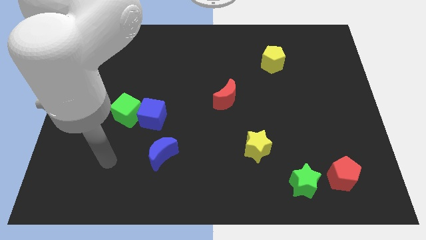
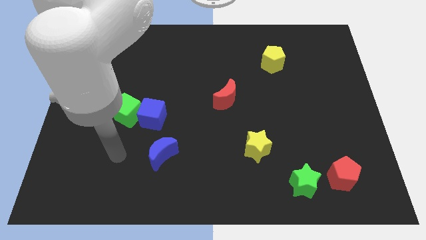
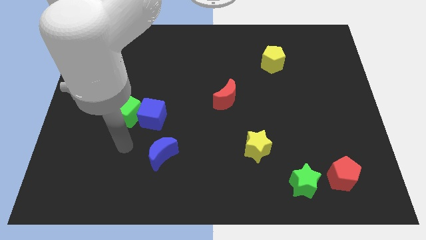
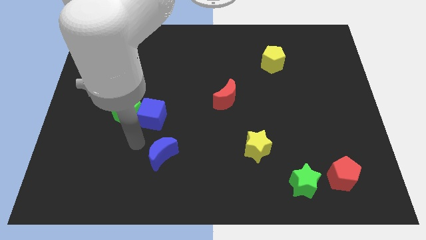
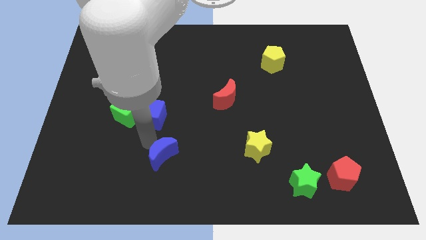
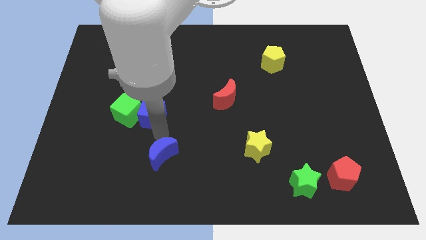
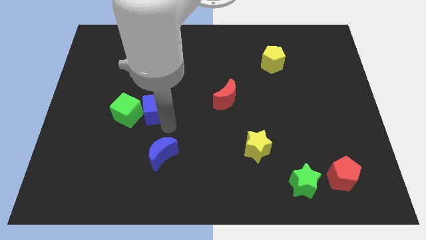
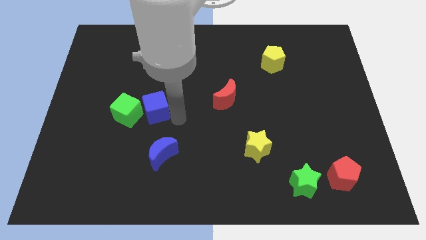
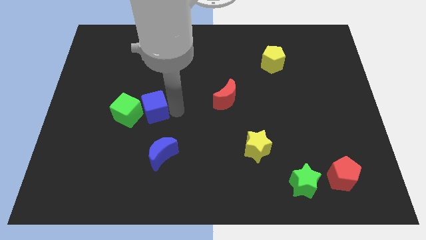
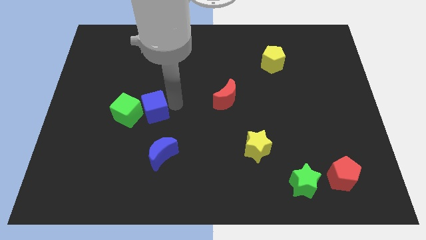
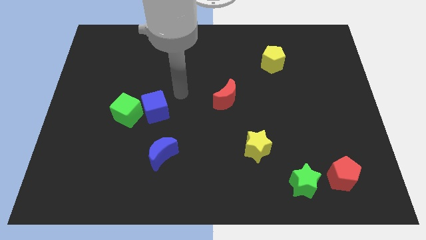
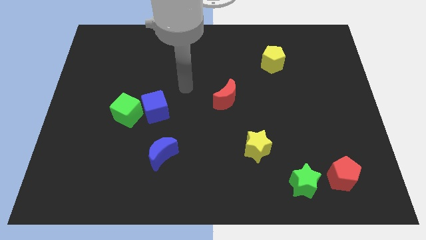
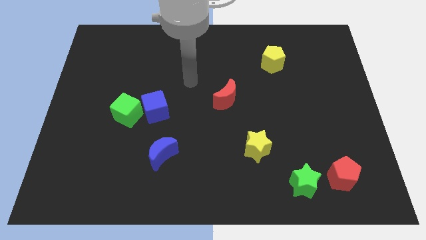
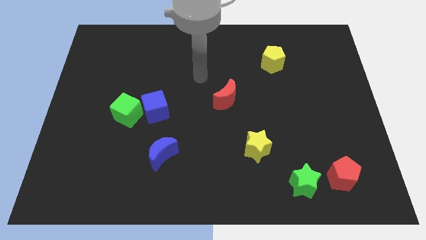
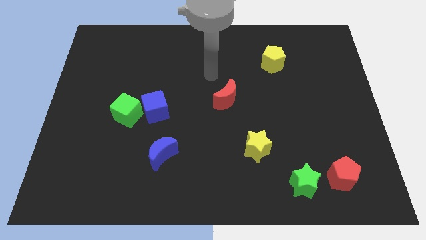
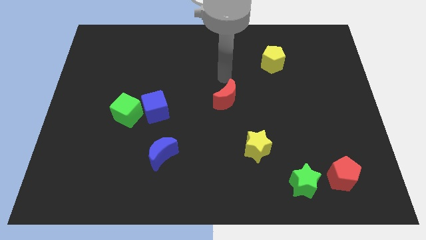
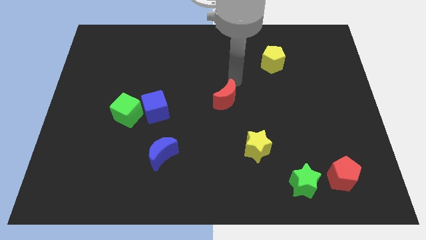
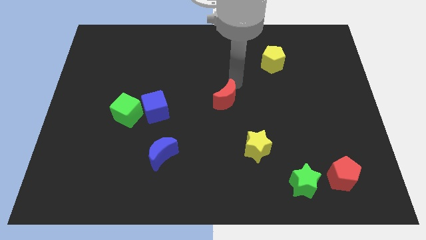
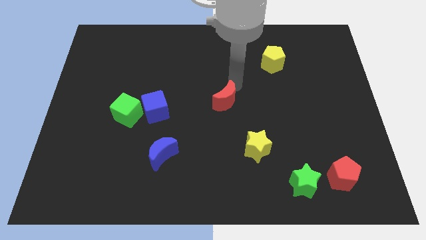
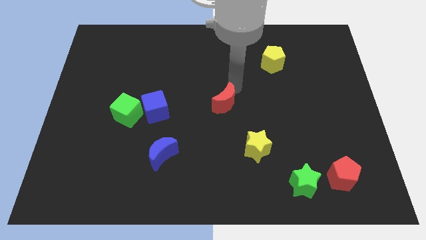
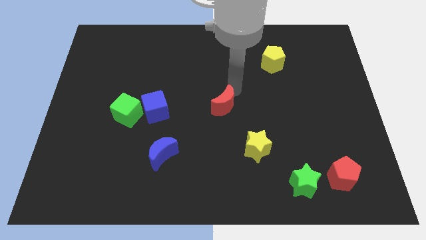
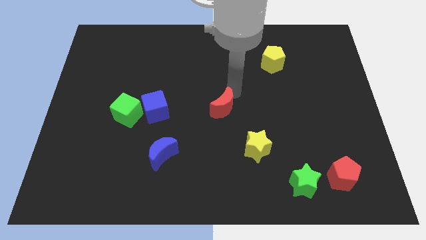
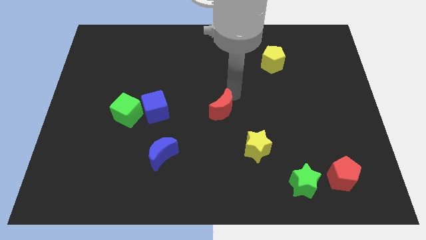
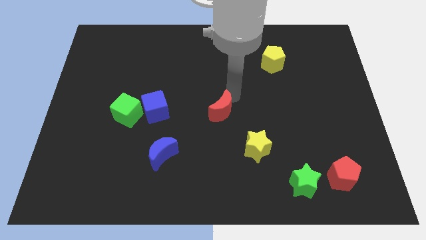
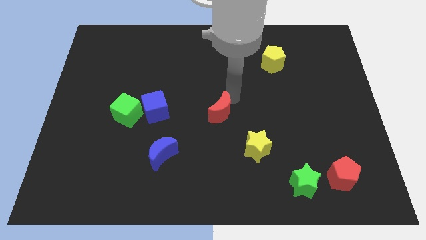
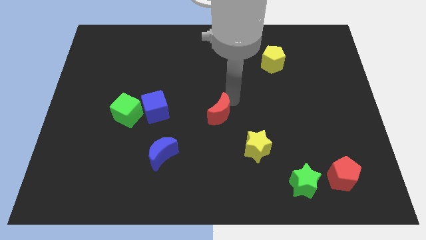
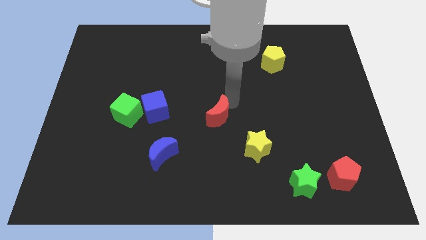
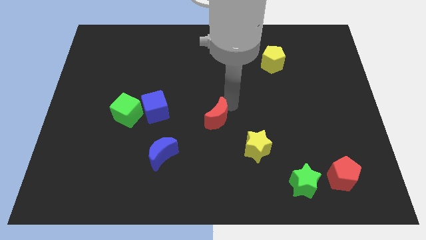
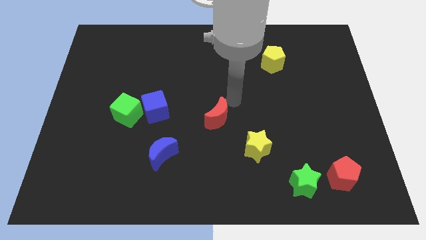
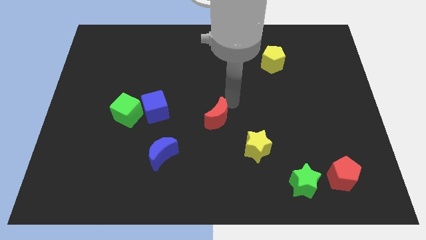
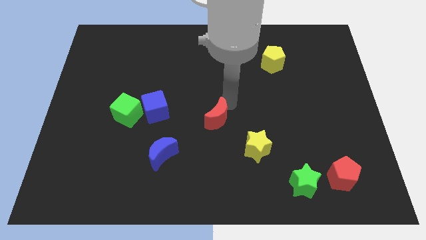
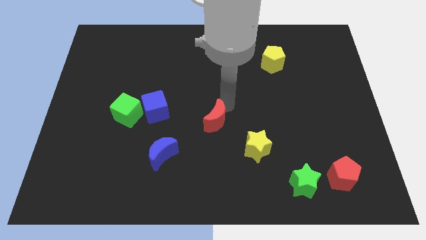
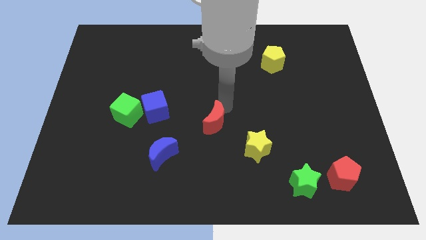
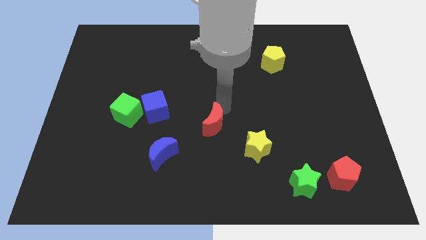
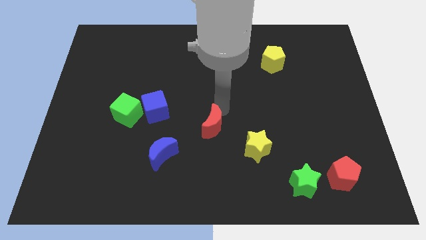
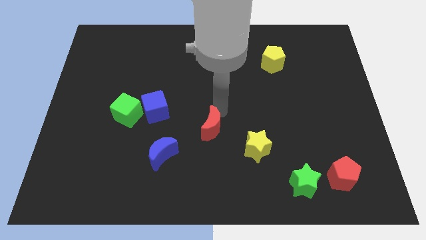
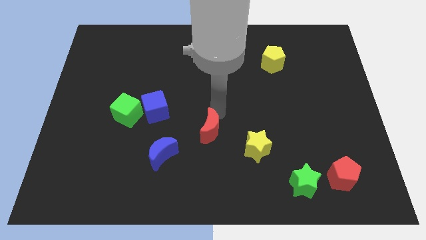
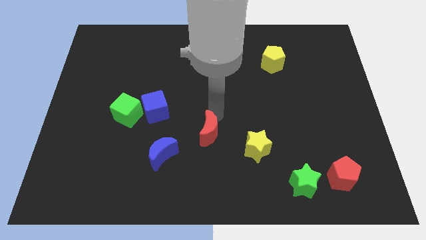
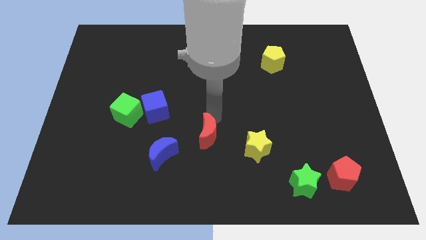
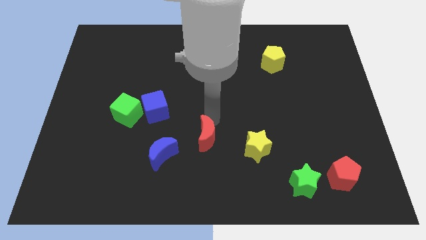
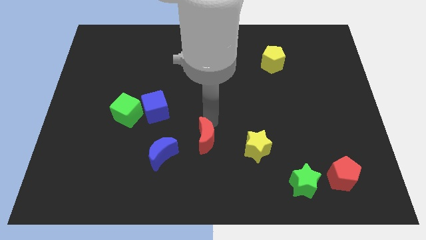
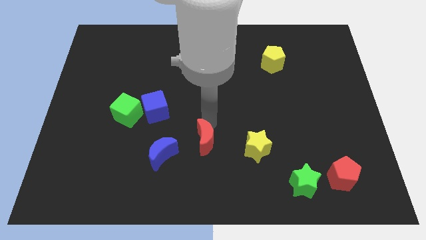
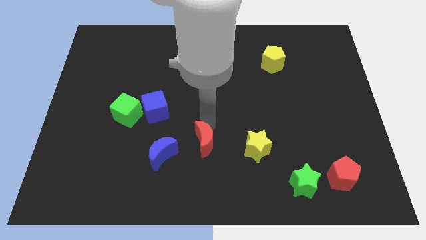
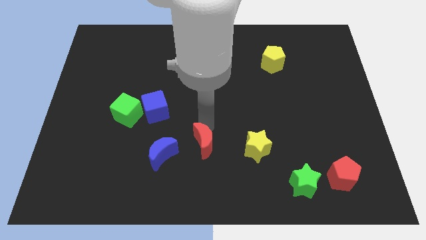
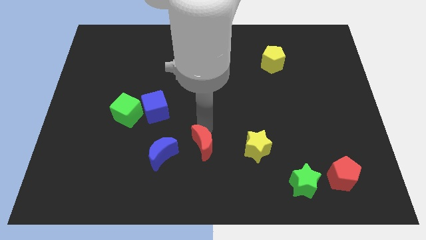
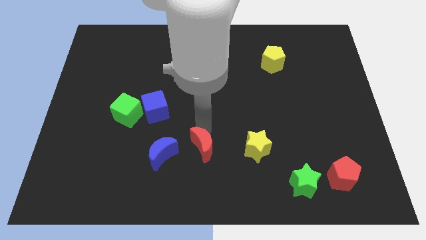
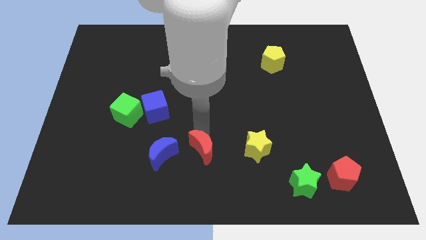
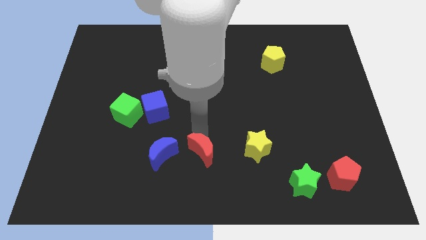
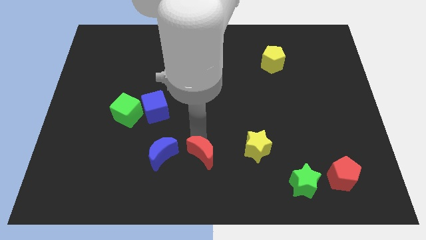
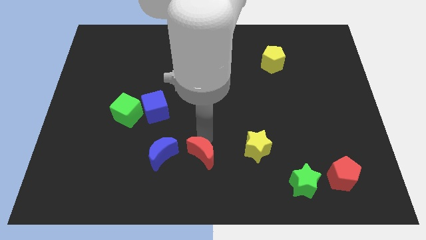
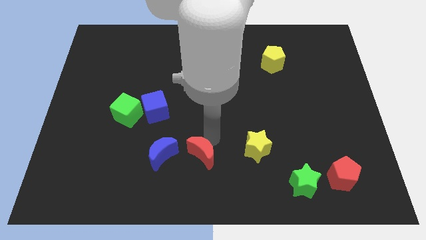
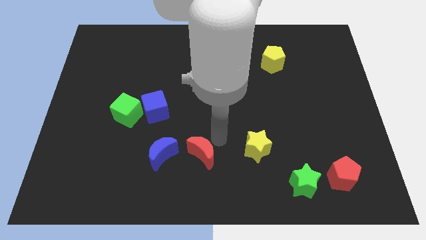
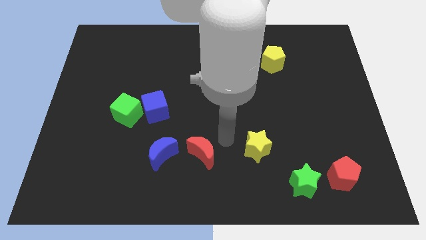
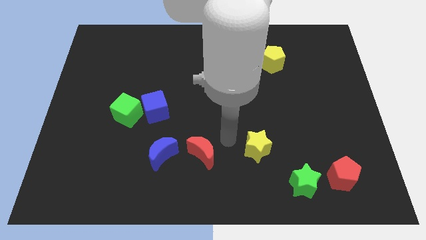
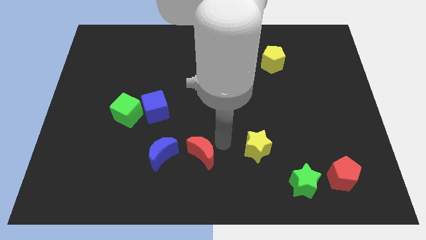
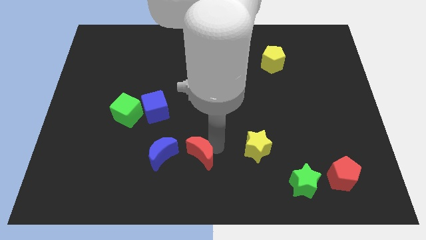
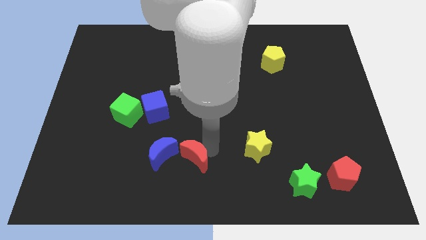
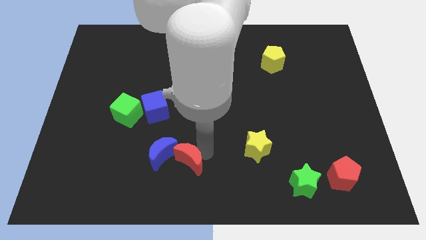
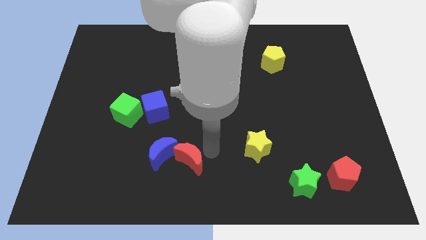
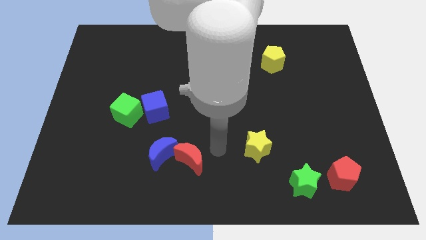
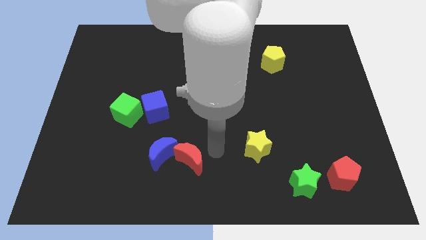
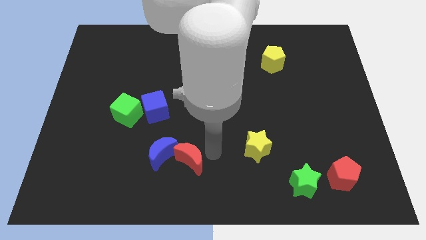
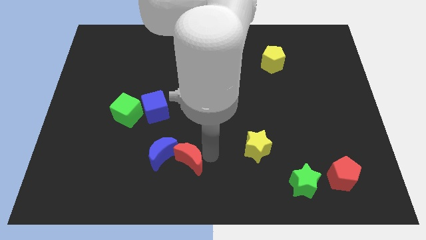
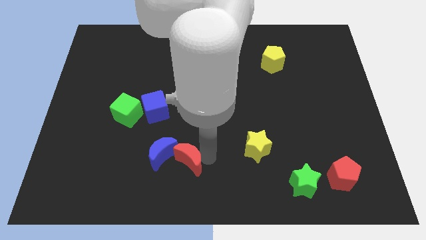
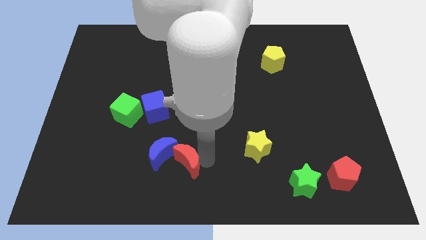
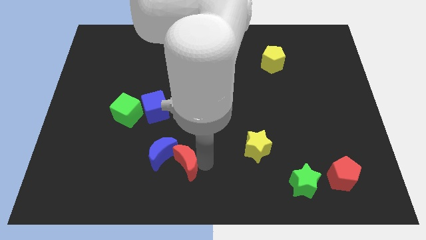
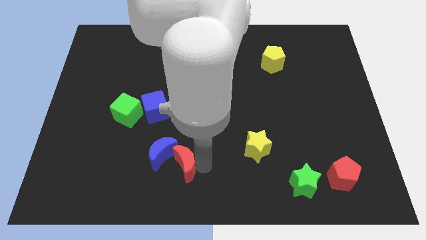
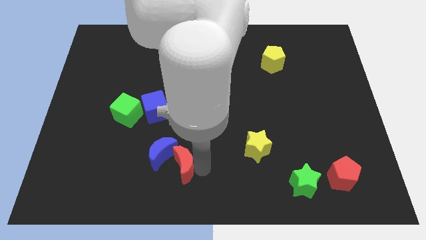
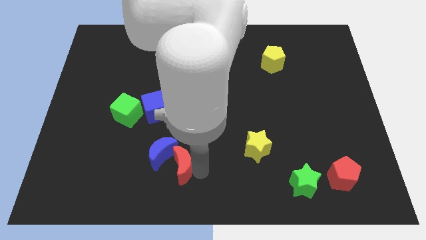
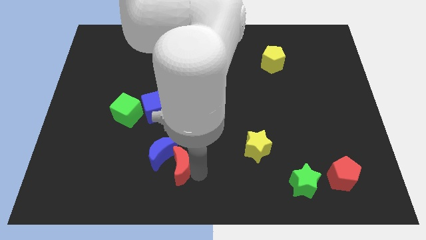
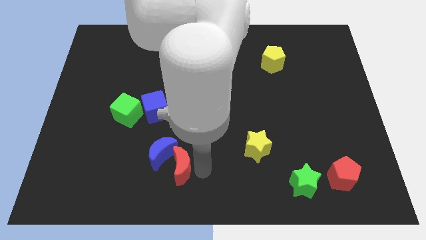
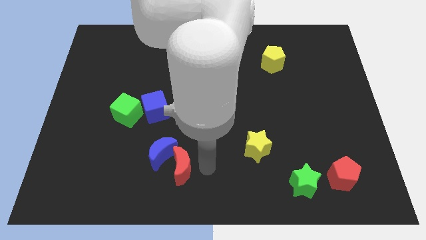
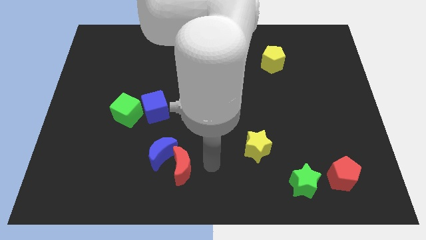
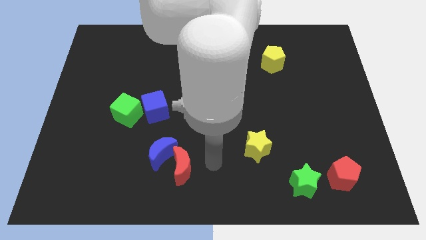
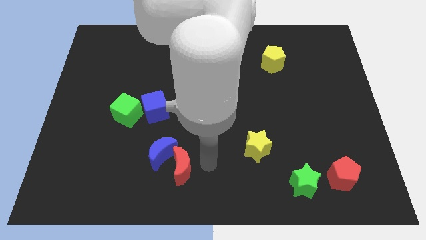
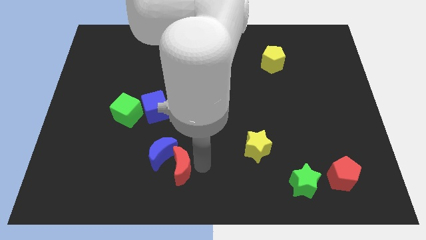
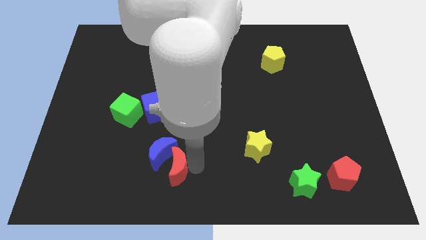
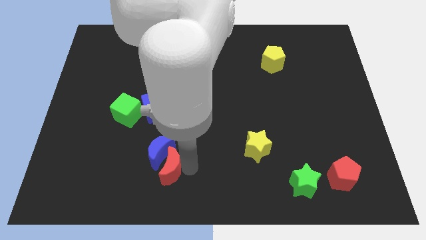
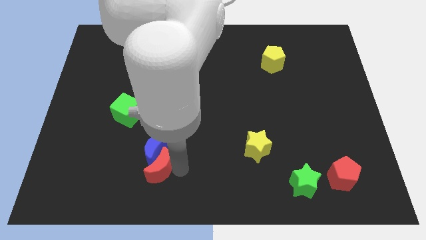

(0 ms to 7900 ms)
slide the red moon diagonally down and to the left of the blue moon
